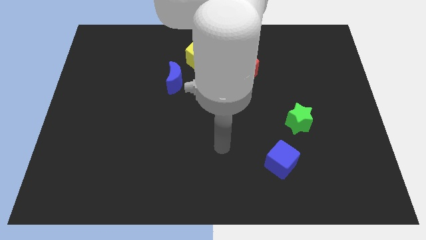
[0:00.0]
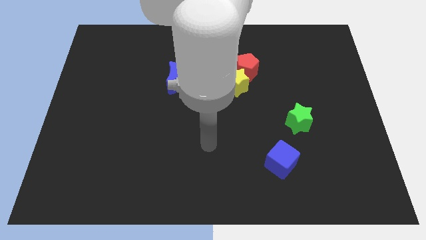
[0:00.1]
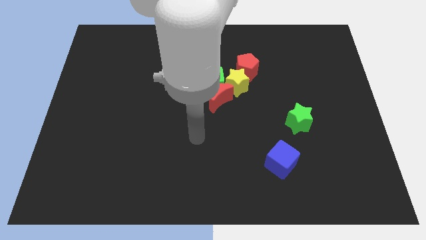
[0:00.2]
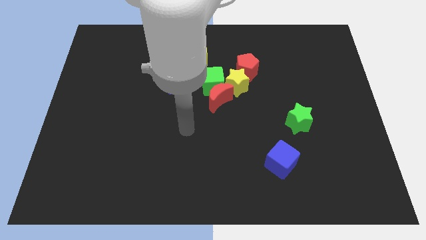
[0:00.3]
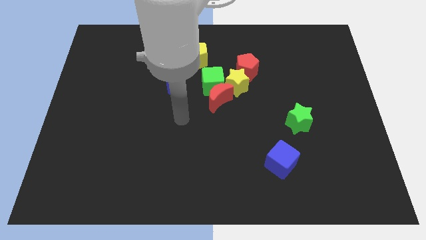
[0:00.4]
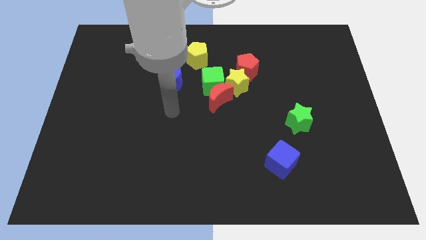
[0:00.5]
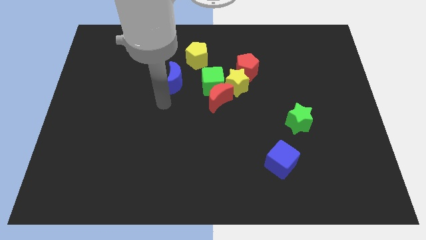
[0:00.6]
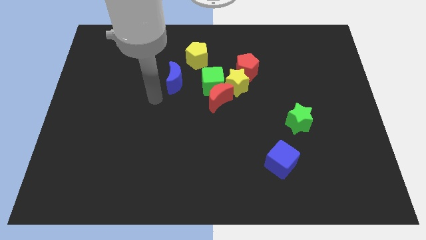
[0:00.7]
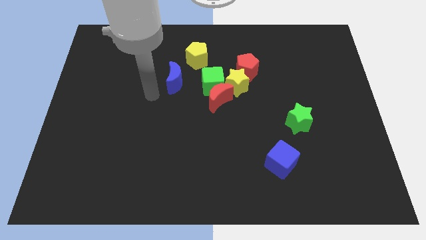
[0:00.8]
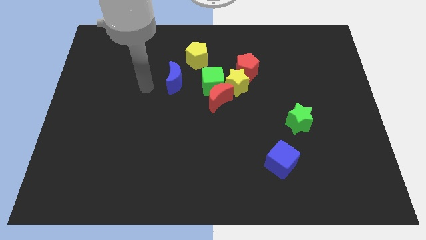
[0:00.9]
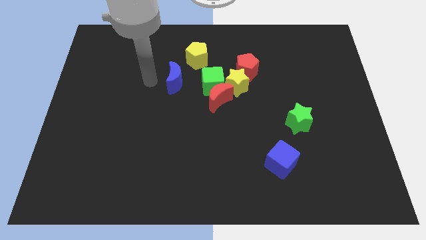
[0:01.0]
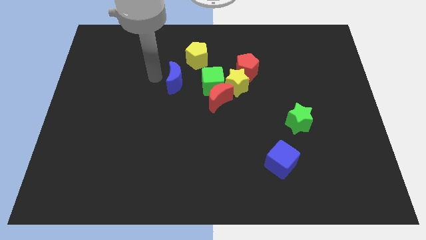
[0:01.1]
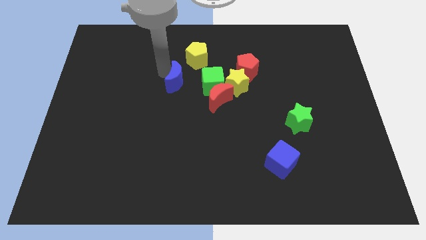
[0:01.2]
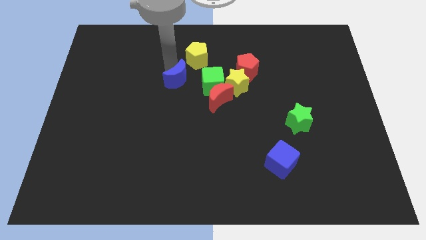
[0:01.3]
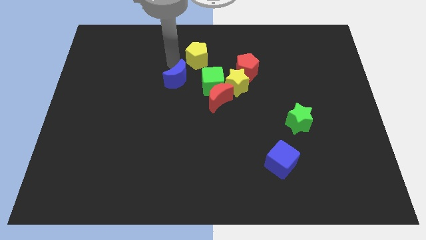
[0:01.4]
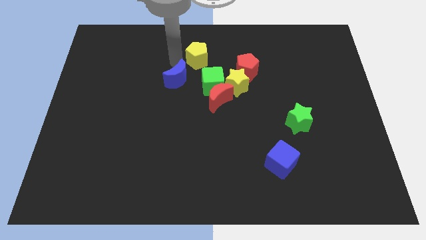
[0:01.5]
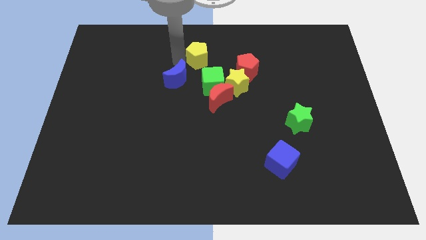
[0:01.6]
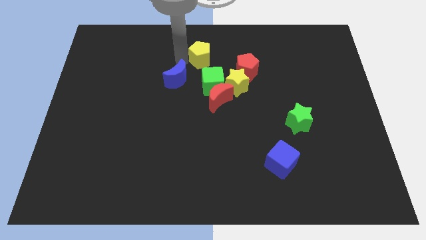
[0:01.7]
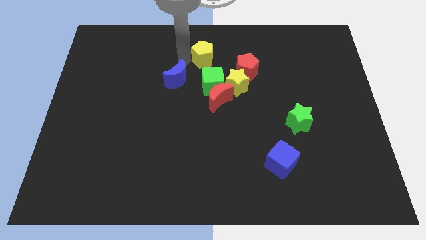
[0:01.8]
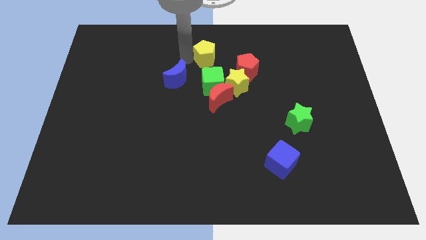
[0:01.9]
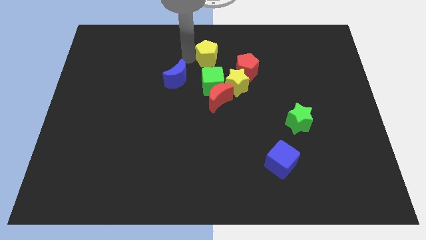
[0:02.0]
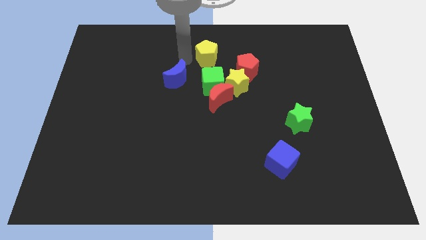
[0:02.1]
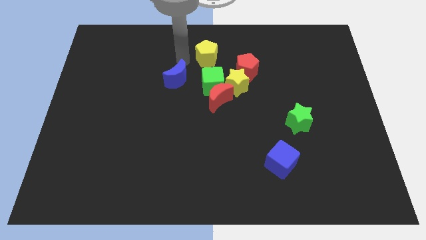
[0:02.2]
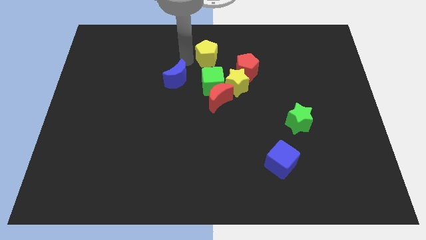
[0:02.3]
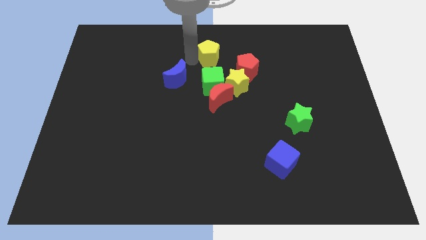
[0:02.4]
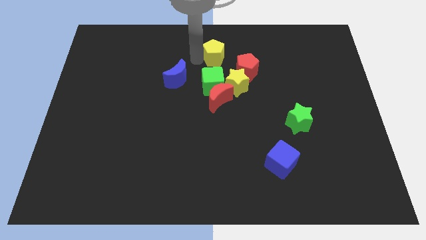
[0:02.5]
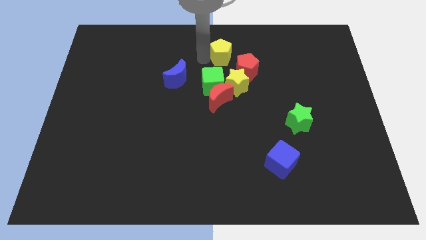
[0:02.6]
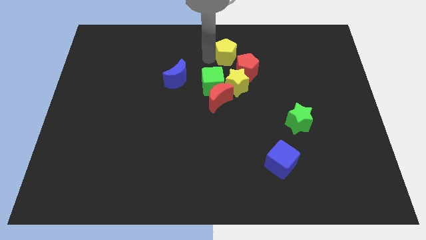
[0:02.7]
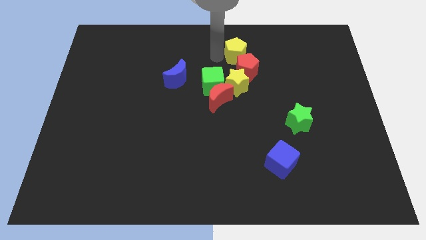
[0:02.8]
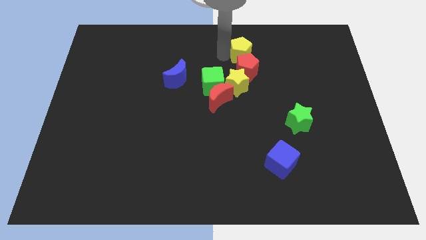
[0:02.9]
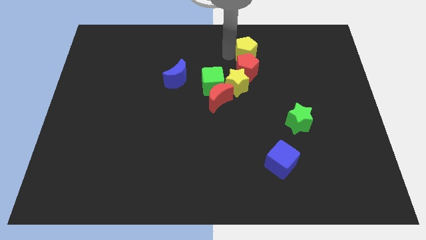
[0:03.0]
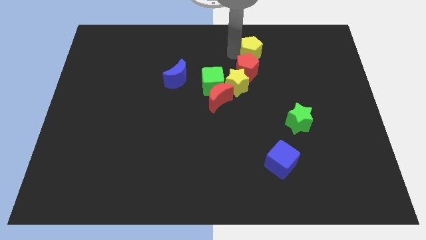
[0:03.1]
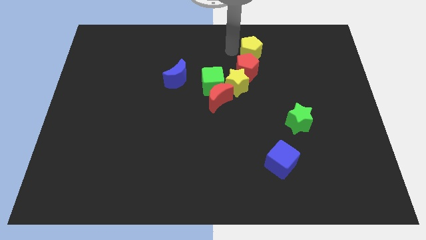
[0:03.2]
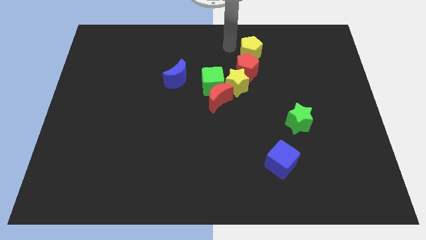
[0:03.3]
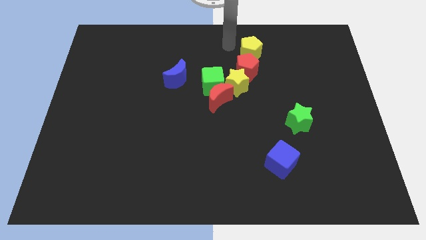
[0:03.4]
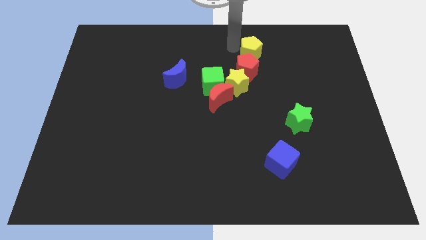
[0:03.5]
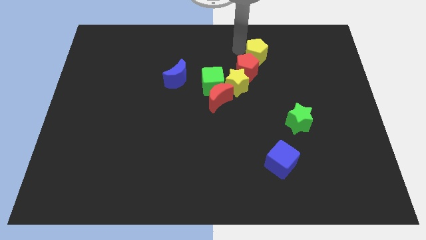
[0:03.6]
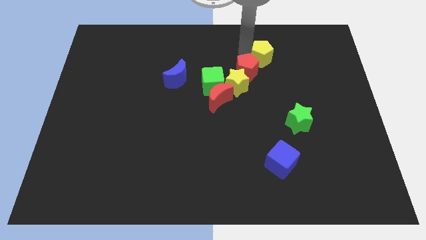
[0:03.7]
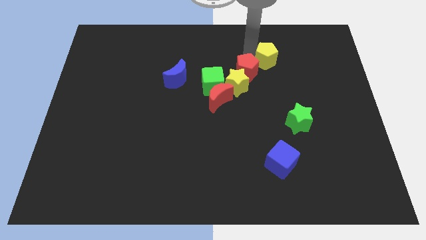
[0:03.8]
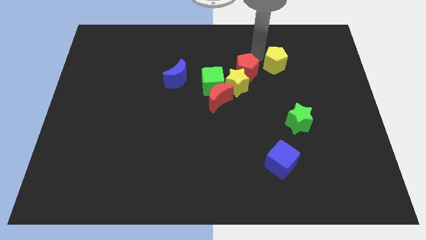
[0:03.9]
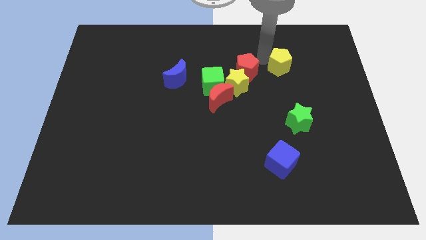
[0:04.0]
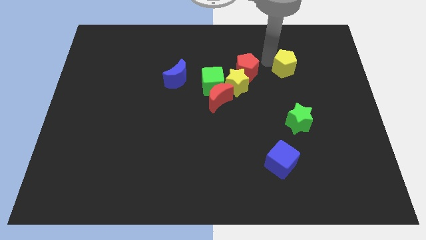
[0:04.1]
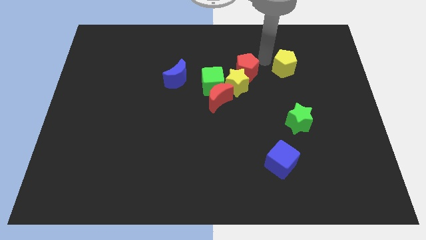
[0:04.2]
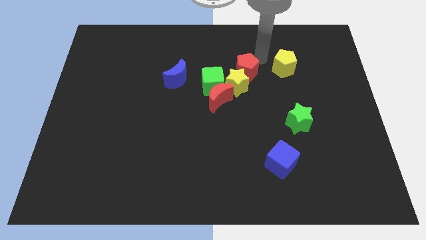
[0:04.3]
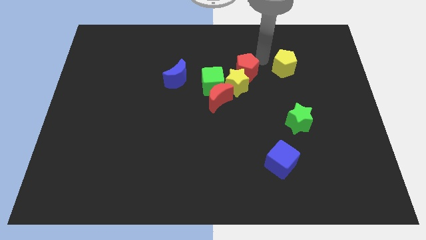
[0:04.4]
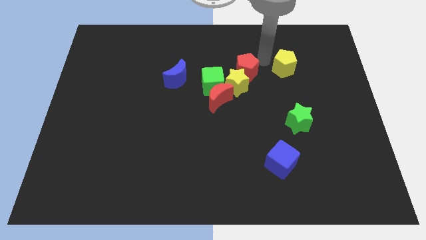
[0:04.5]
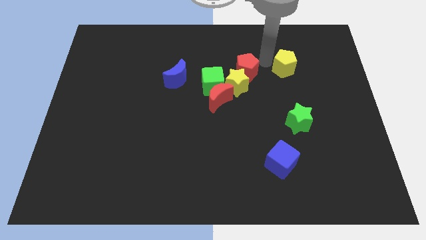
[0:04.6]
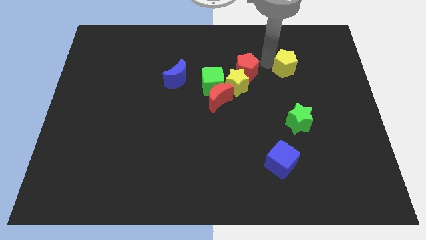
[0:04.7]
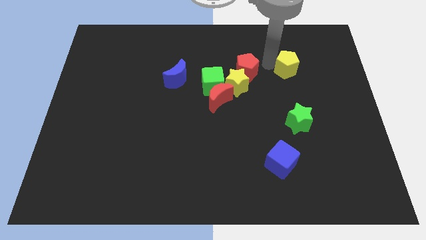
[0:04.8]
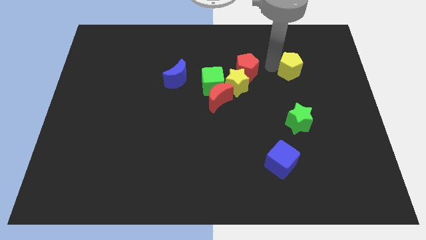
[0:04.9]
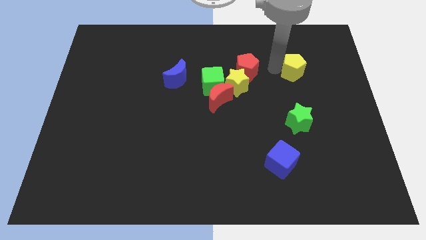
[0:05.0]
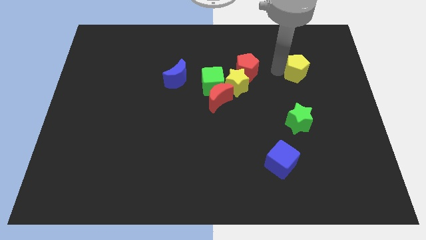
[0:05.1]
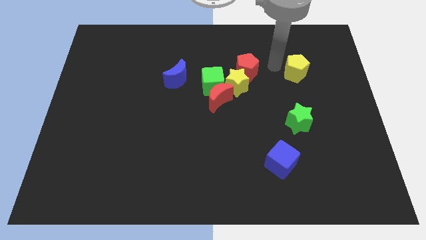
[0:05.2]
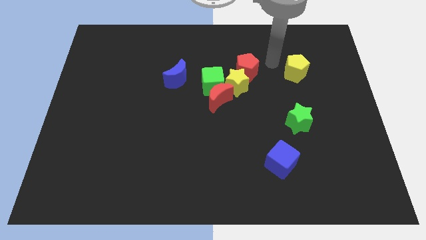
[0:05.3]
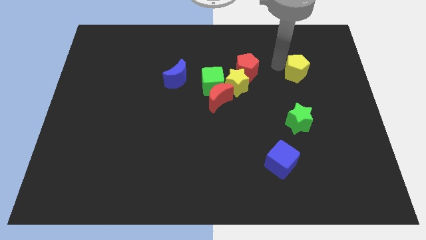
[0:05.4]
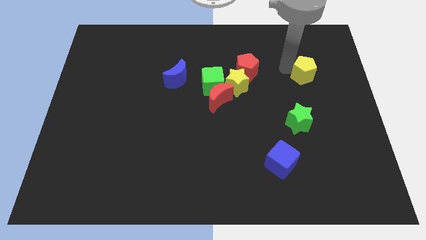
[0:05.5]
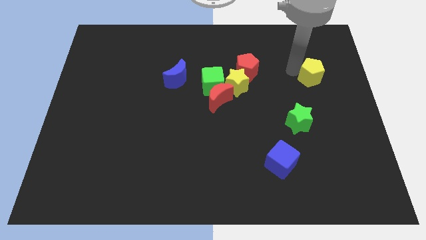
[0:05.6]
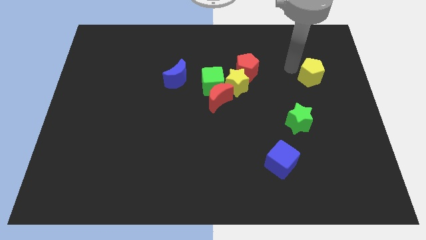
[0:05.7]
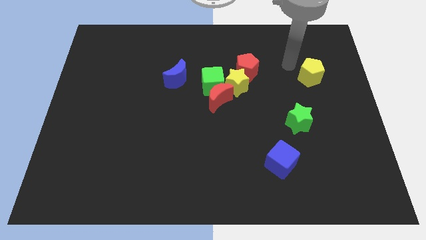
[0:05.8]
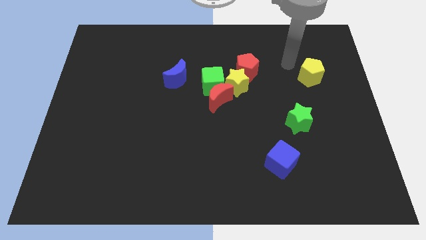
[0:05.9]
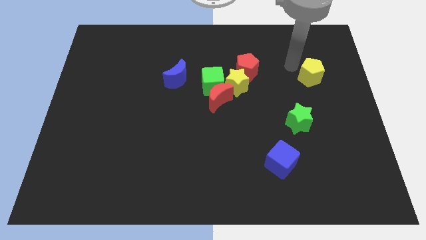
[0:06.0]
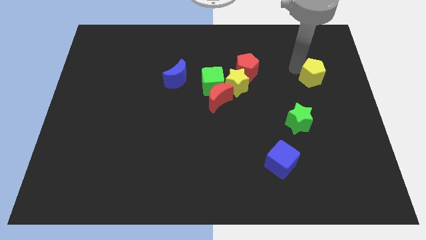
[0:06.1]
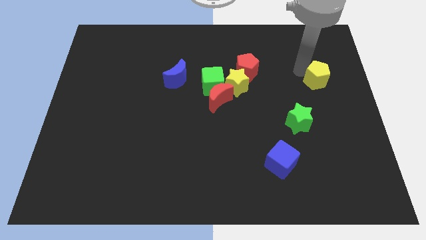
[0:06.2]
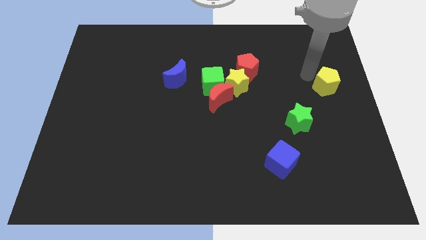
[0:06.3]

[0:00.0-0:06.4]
slide the yellow pentagon to the right side
